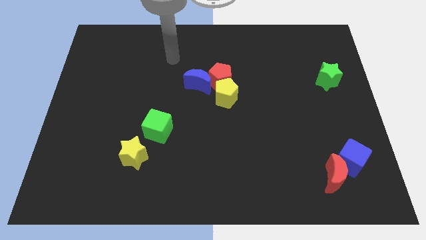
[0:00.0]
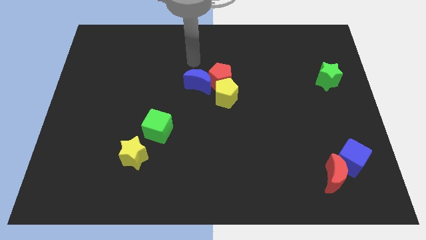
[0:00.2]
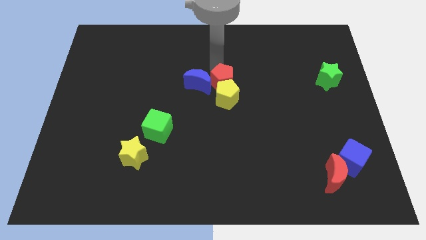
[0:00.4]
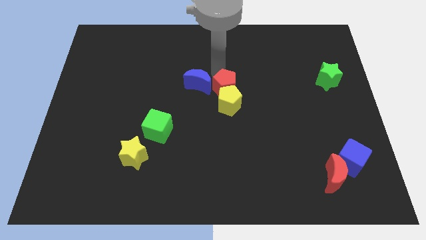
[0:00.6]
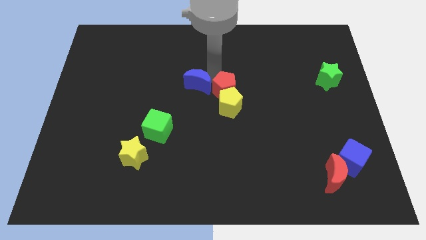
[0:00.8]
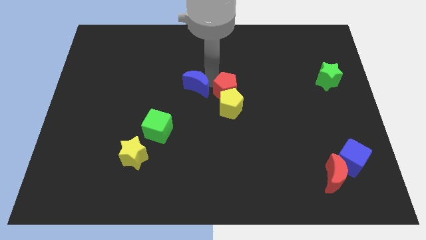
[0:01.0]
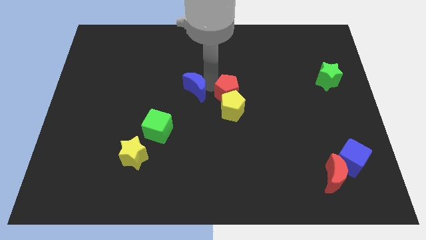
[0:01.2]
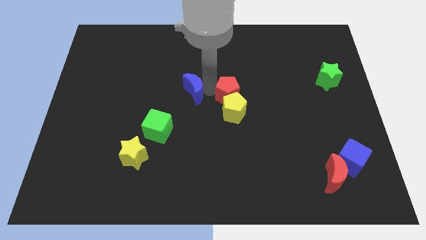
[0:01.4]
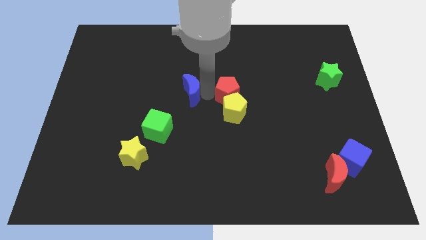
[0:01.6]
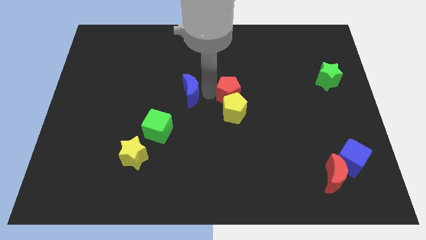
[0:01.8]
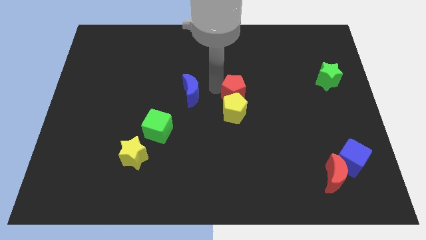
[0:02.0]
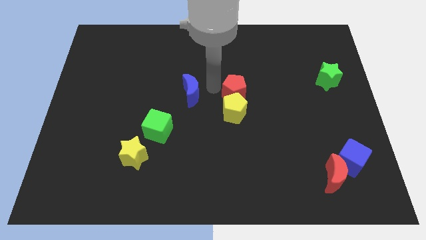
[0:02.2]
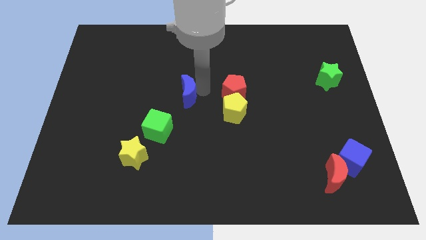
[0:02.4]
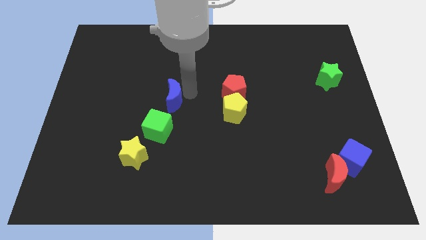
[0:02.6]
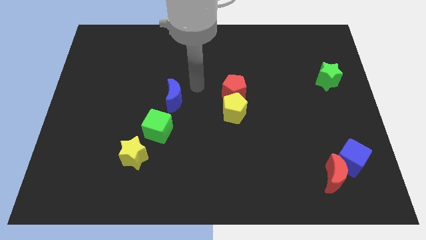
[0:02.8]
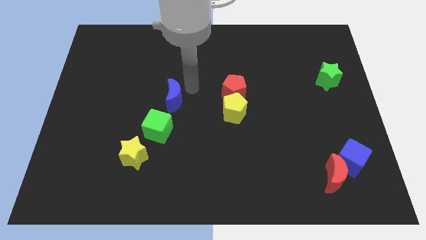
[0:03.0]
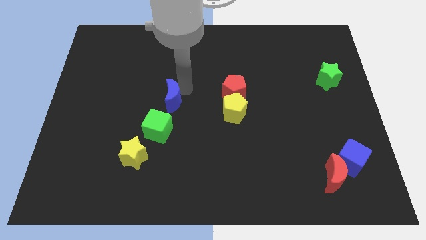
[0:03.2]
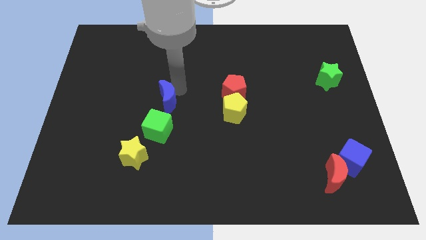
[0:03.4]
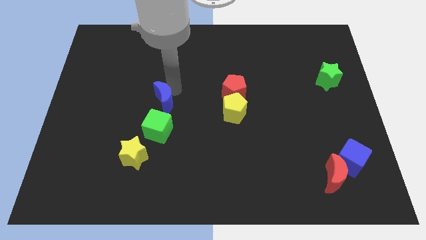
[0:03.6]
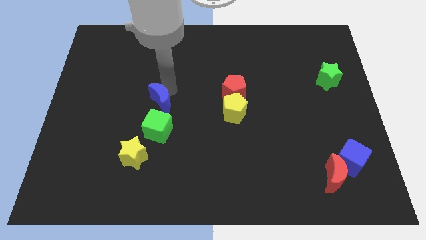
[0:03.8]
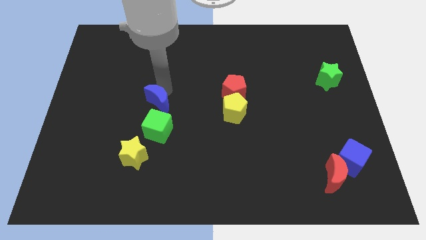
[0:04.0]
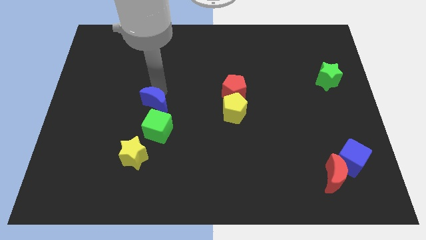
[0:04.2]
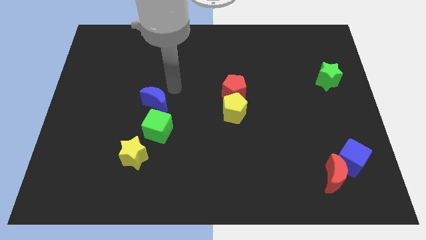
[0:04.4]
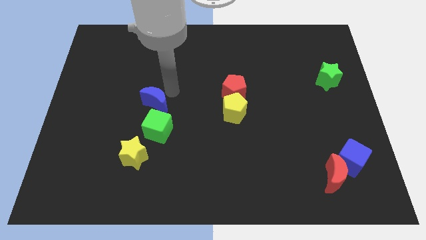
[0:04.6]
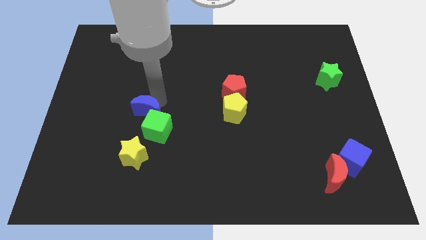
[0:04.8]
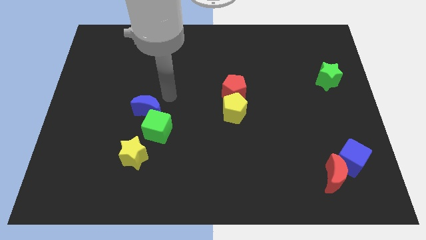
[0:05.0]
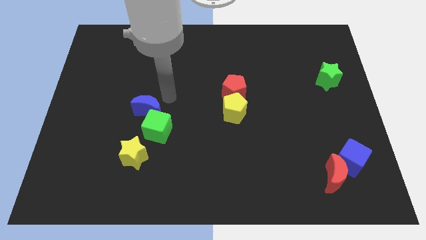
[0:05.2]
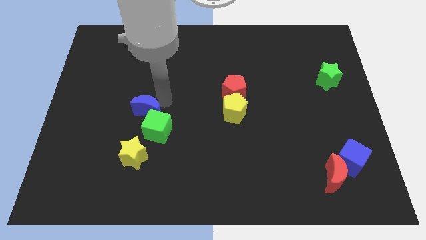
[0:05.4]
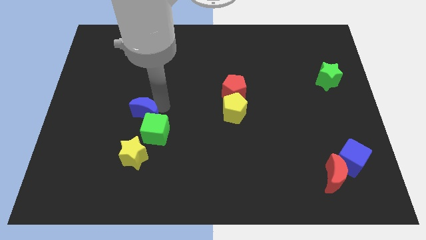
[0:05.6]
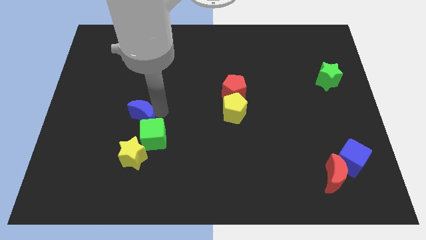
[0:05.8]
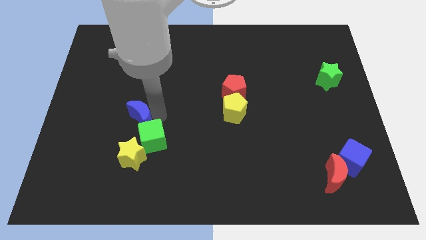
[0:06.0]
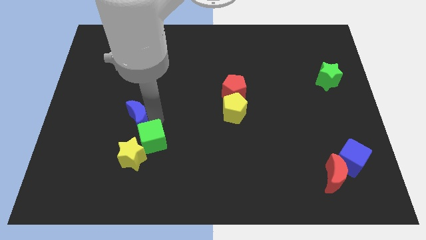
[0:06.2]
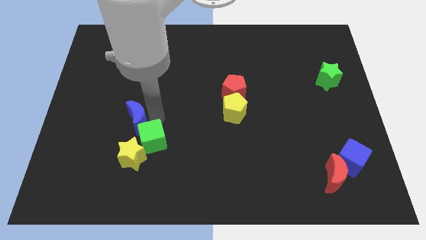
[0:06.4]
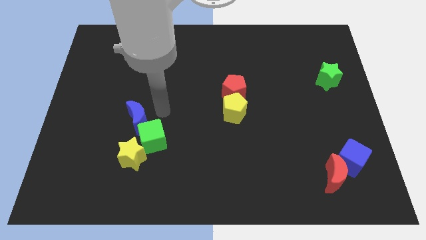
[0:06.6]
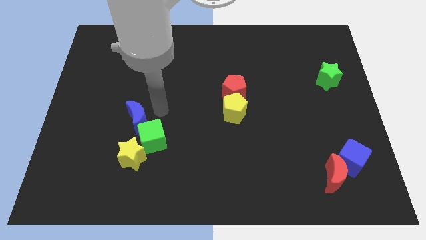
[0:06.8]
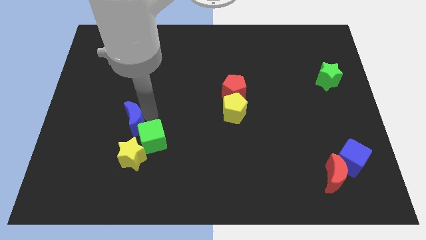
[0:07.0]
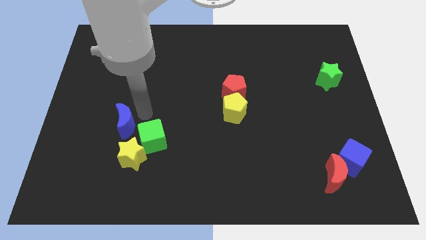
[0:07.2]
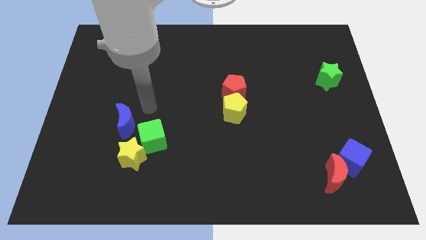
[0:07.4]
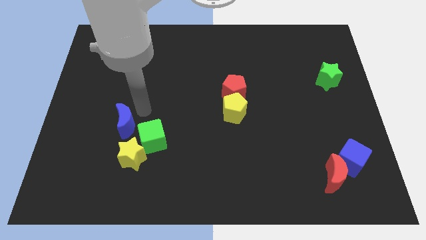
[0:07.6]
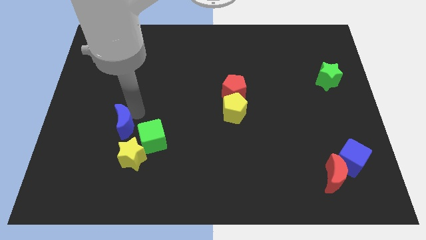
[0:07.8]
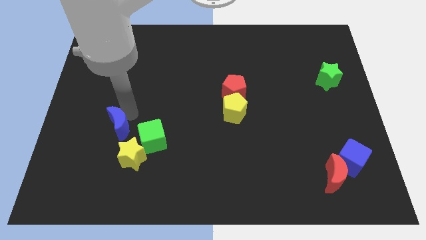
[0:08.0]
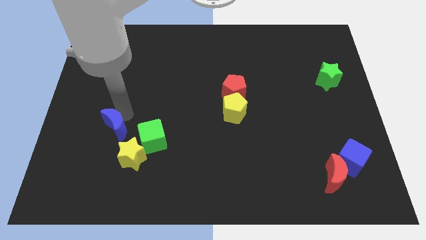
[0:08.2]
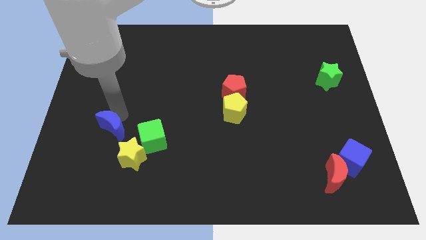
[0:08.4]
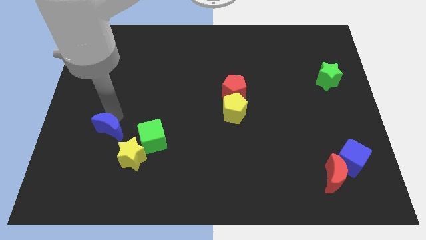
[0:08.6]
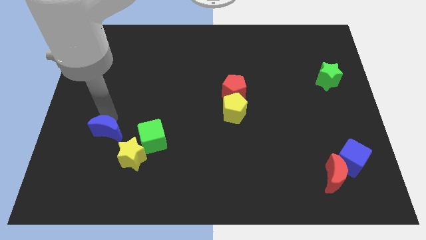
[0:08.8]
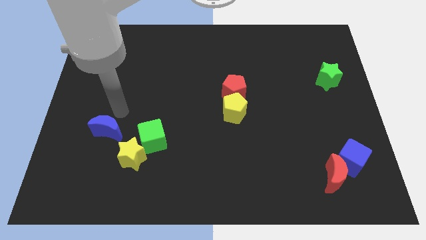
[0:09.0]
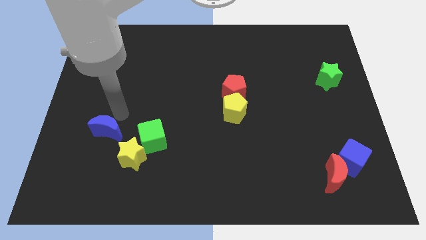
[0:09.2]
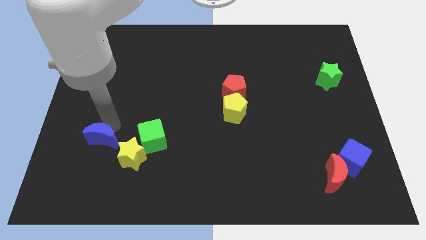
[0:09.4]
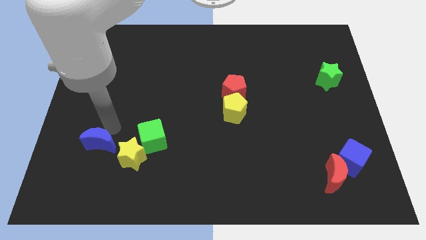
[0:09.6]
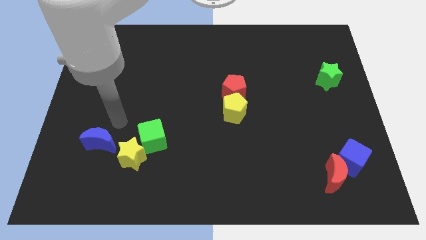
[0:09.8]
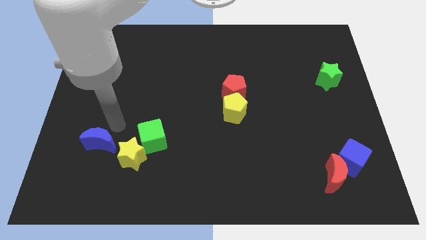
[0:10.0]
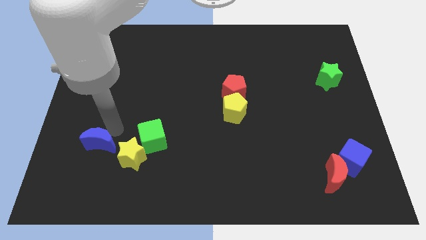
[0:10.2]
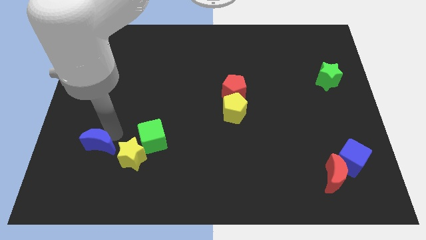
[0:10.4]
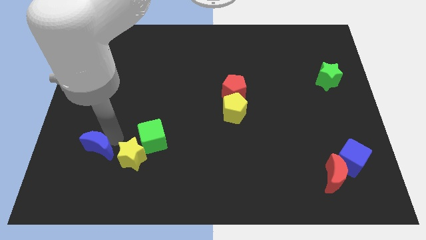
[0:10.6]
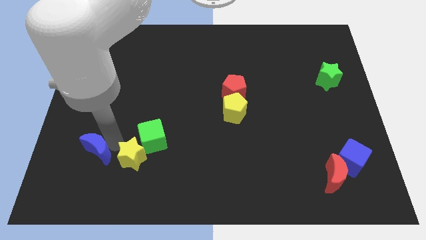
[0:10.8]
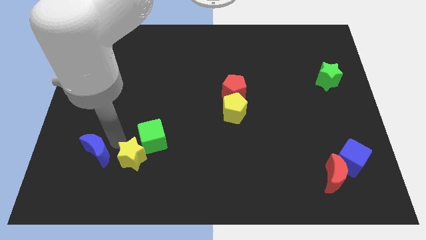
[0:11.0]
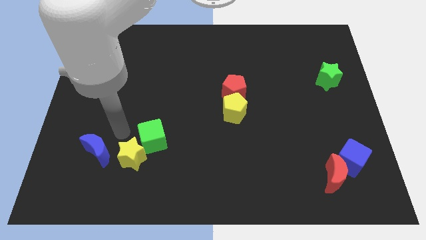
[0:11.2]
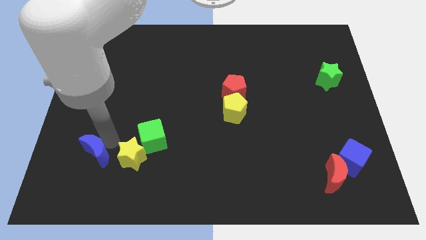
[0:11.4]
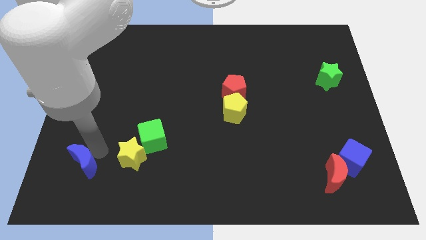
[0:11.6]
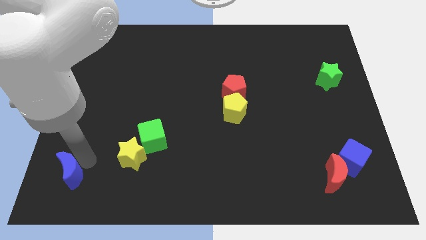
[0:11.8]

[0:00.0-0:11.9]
slide the blue moon to the bottom left of the board

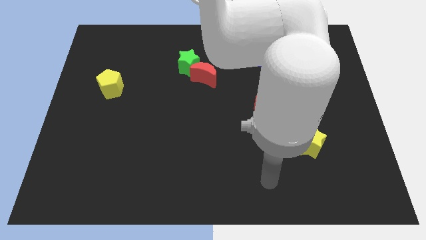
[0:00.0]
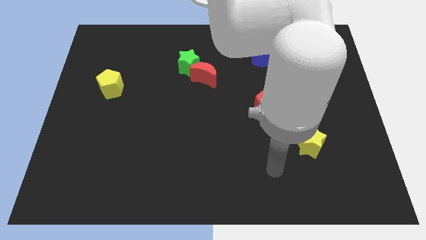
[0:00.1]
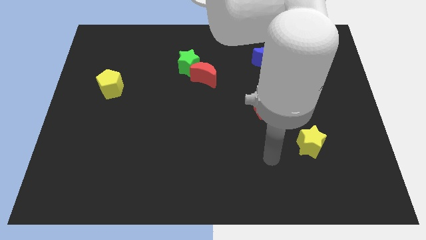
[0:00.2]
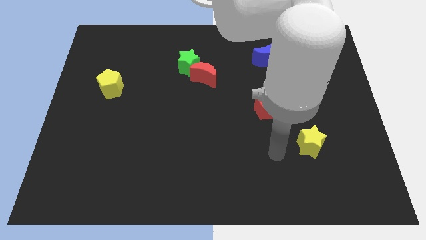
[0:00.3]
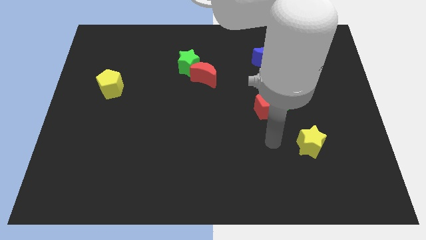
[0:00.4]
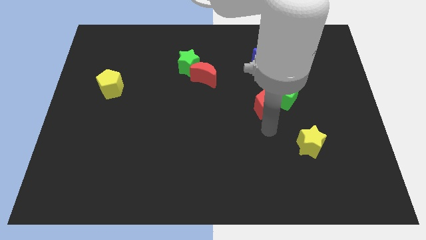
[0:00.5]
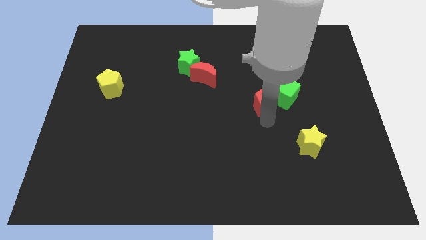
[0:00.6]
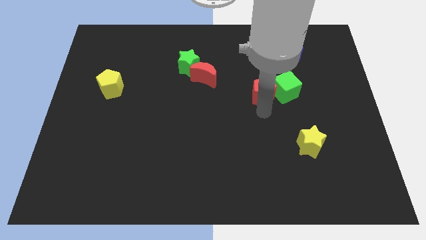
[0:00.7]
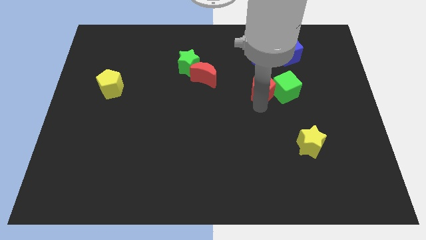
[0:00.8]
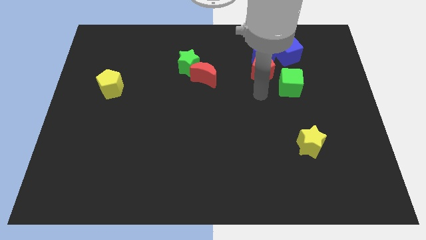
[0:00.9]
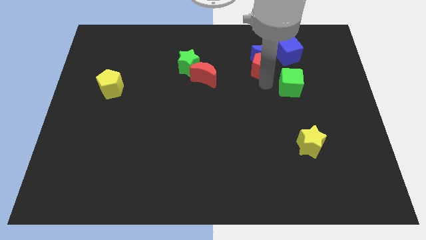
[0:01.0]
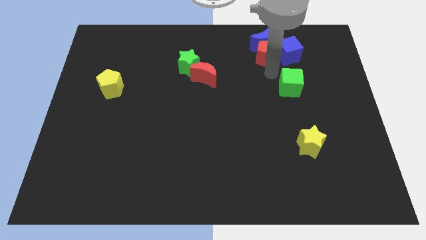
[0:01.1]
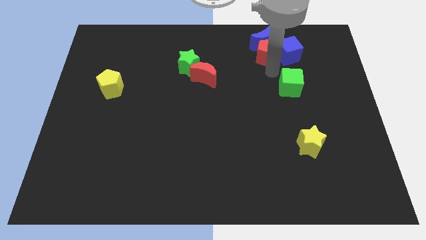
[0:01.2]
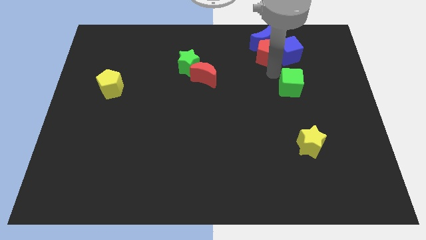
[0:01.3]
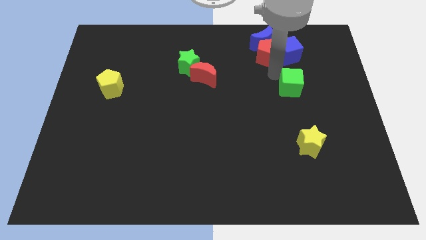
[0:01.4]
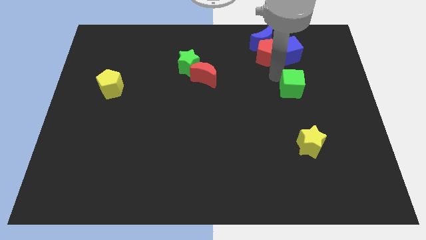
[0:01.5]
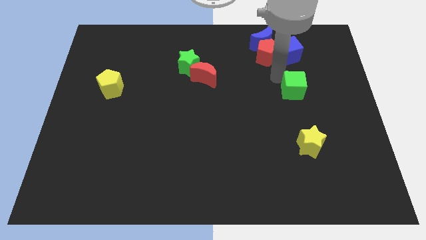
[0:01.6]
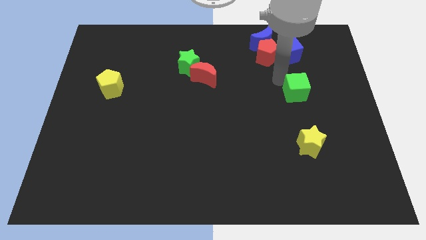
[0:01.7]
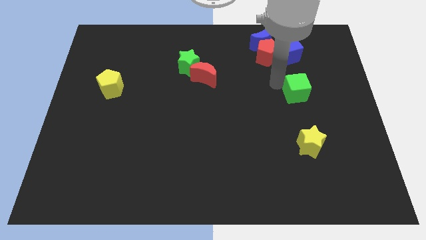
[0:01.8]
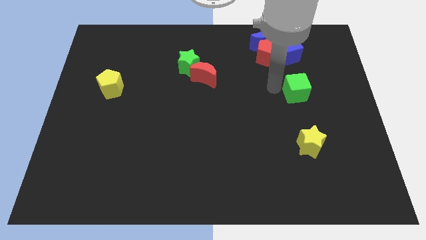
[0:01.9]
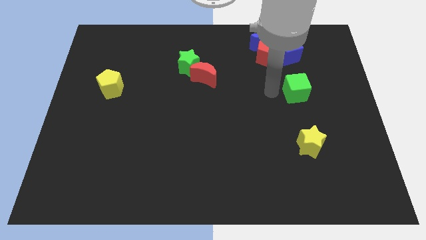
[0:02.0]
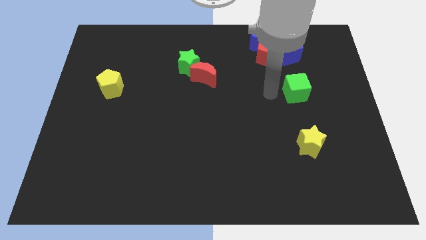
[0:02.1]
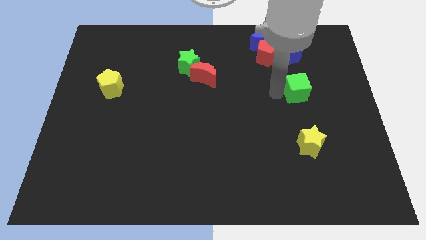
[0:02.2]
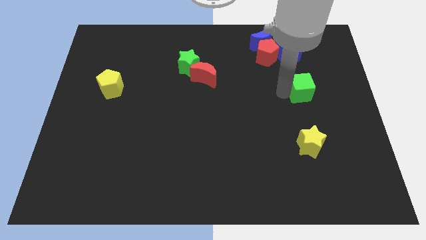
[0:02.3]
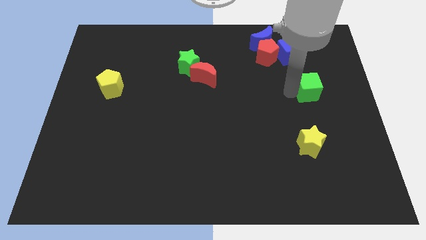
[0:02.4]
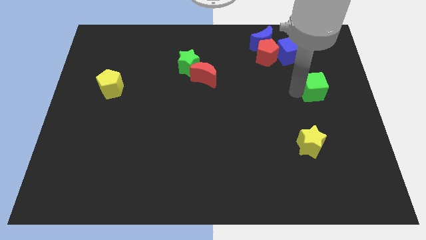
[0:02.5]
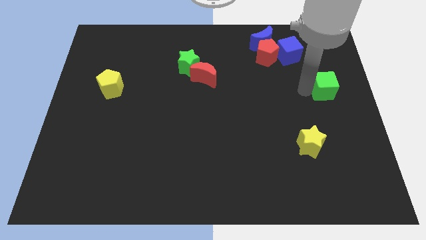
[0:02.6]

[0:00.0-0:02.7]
push the green cube to the center right
